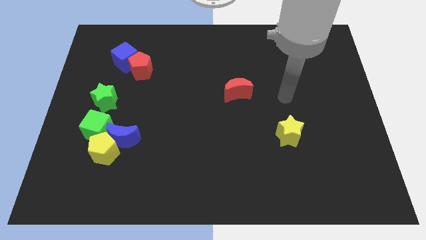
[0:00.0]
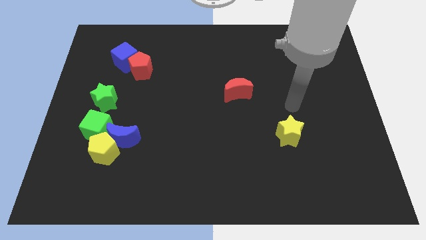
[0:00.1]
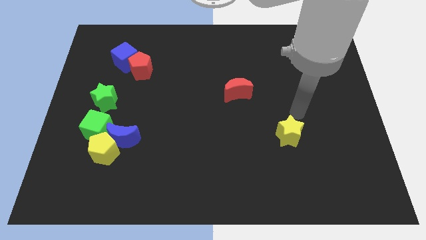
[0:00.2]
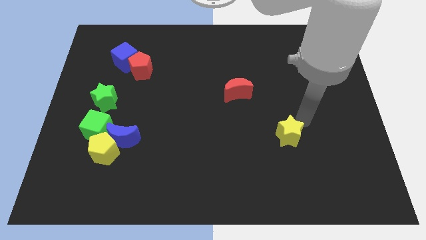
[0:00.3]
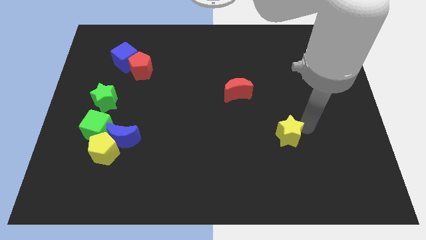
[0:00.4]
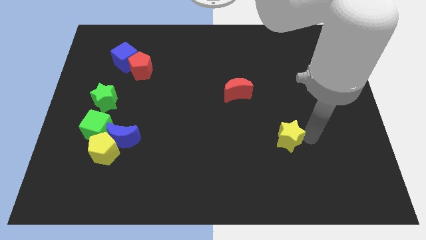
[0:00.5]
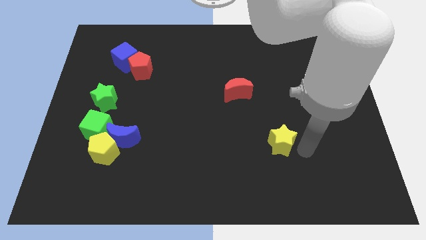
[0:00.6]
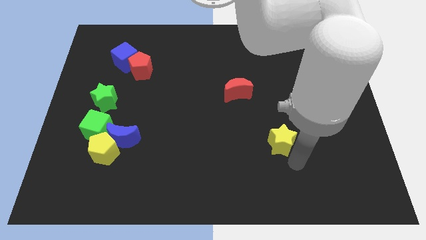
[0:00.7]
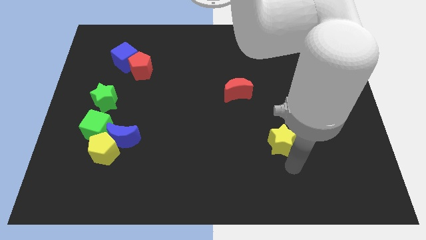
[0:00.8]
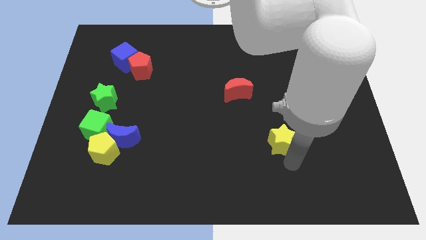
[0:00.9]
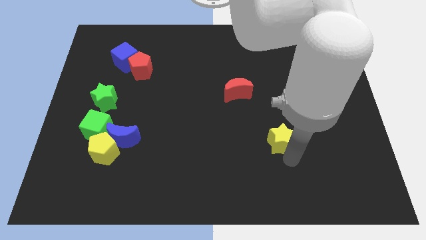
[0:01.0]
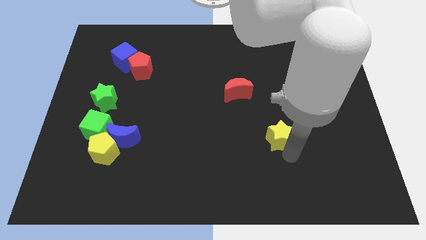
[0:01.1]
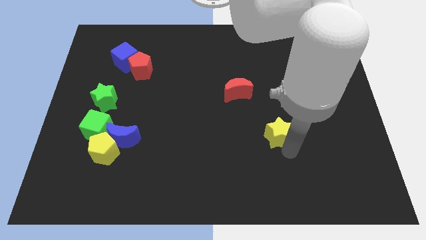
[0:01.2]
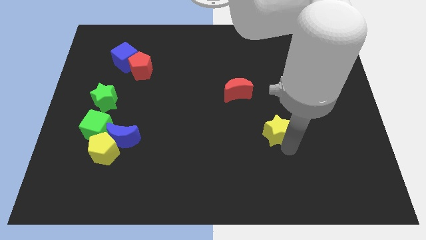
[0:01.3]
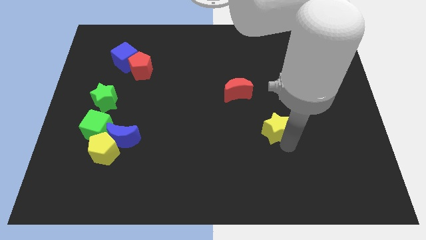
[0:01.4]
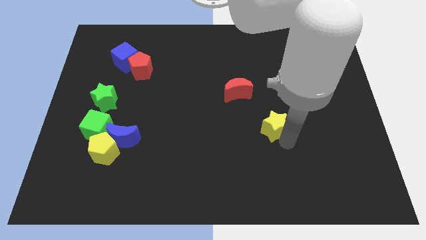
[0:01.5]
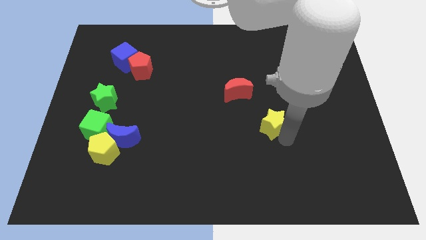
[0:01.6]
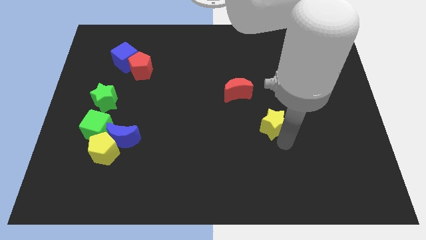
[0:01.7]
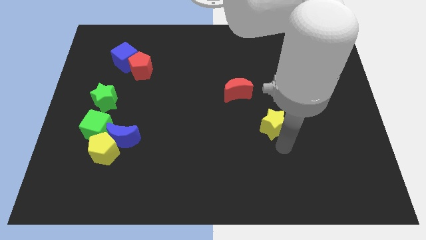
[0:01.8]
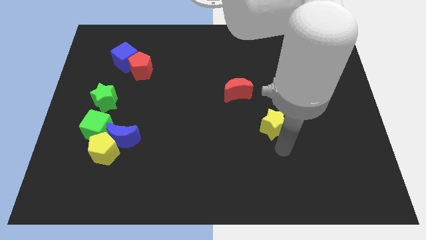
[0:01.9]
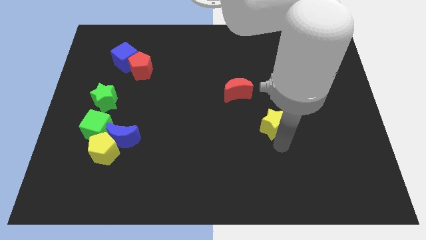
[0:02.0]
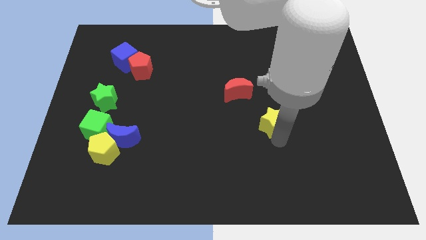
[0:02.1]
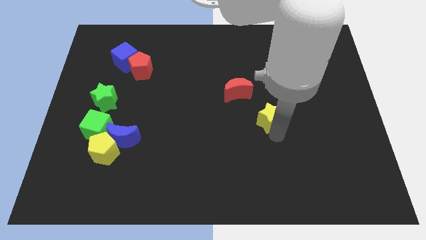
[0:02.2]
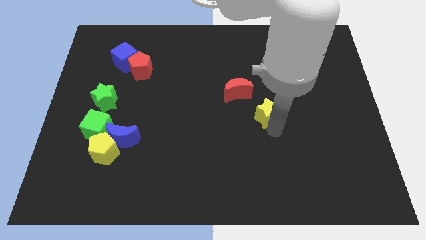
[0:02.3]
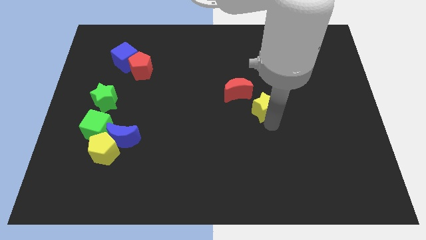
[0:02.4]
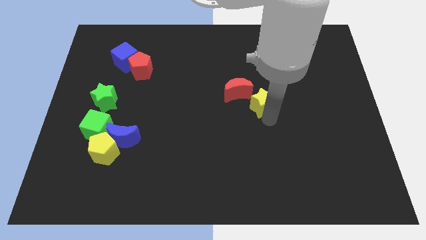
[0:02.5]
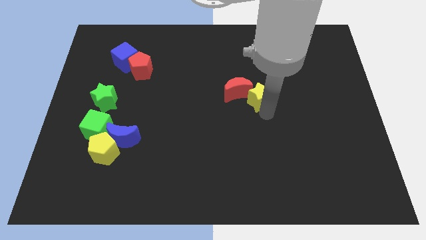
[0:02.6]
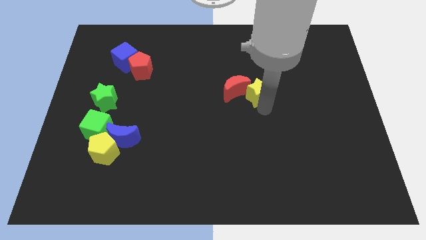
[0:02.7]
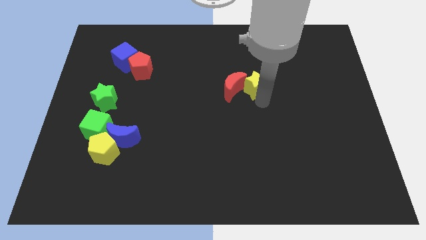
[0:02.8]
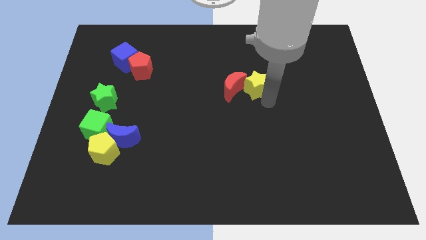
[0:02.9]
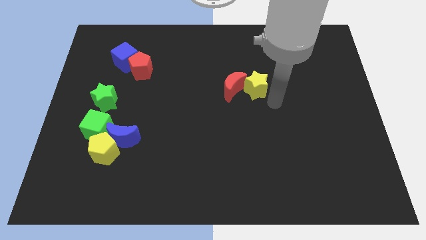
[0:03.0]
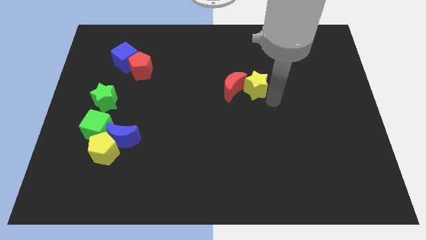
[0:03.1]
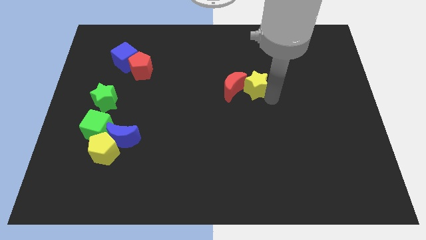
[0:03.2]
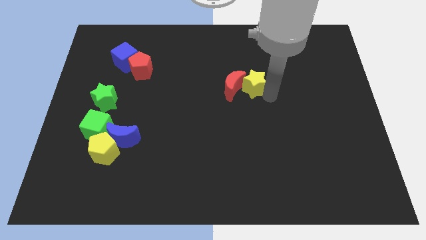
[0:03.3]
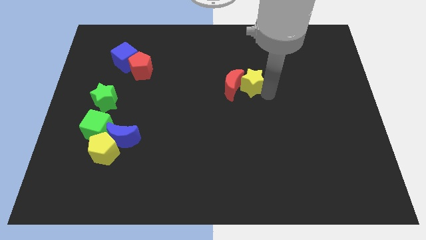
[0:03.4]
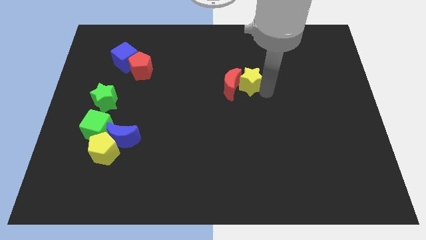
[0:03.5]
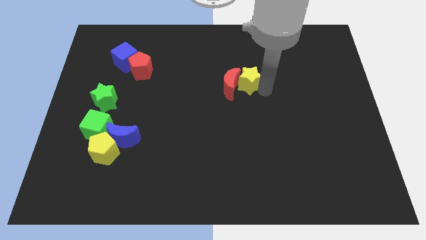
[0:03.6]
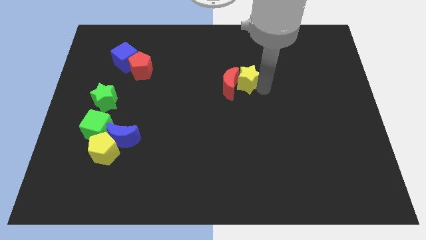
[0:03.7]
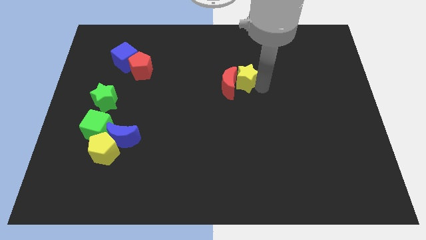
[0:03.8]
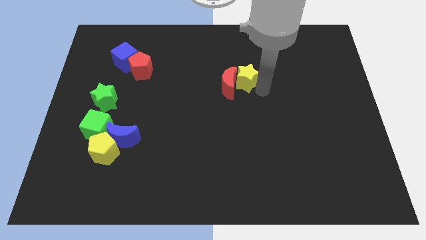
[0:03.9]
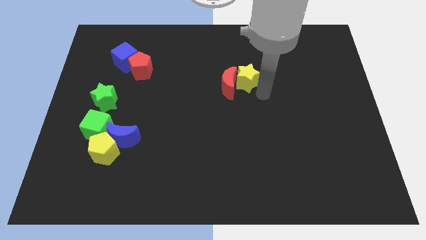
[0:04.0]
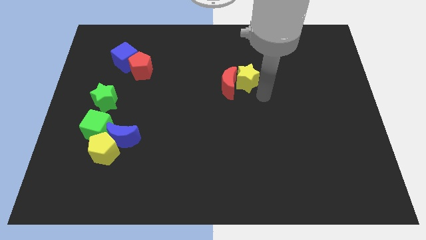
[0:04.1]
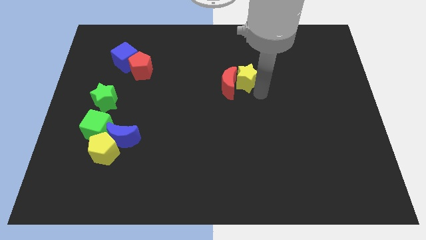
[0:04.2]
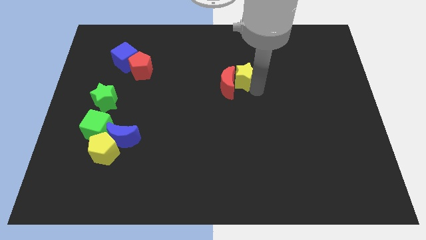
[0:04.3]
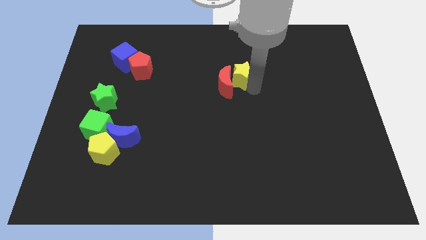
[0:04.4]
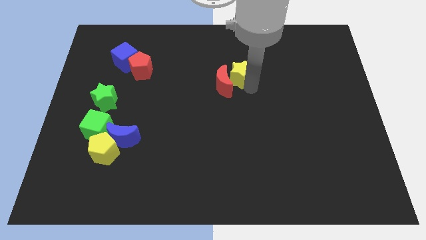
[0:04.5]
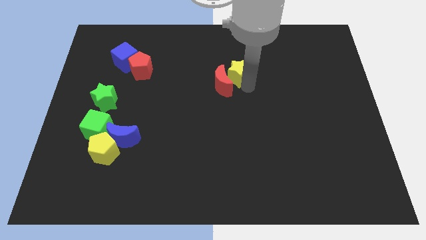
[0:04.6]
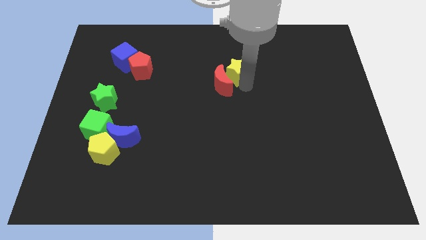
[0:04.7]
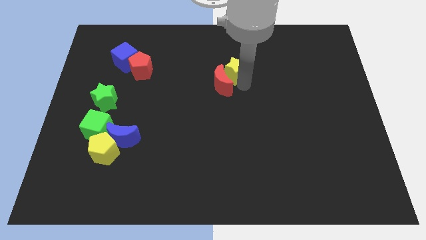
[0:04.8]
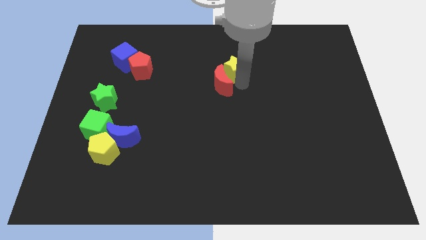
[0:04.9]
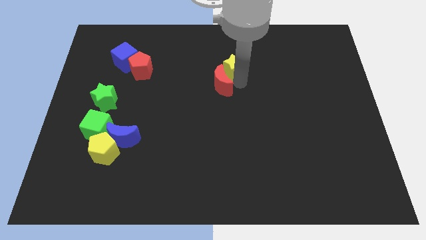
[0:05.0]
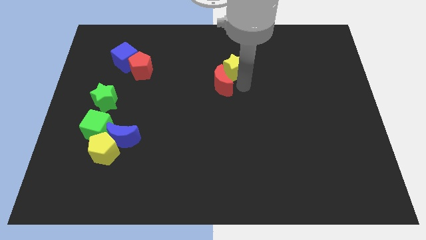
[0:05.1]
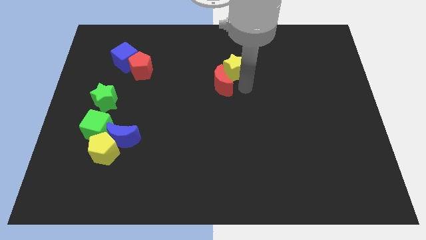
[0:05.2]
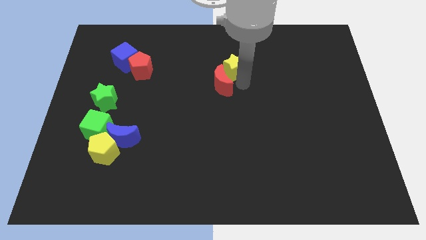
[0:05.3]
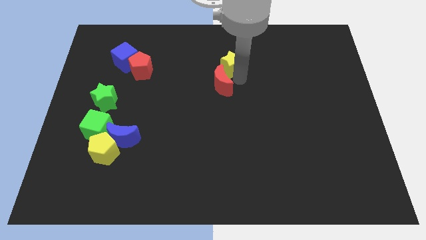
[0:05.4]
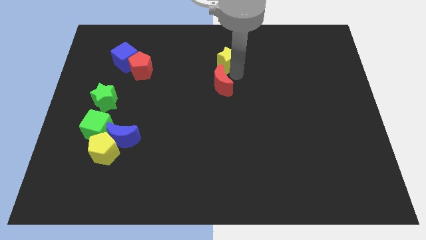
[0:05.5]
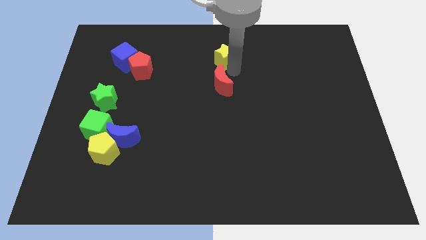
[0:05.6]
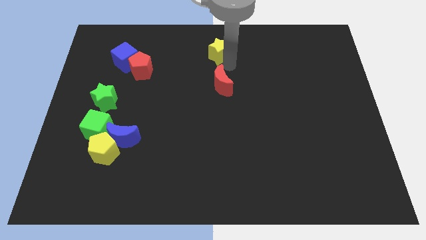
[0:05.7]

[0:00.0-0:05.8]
slide the yellow star to the top side

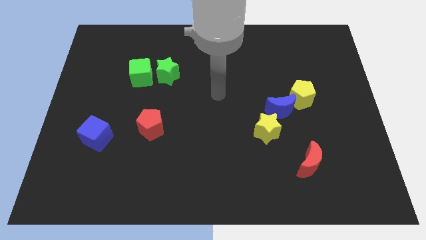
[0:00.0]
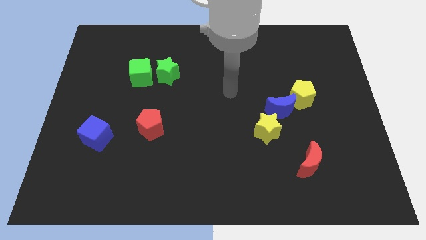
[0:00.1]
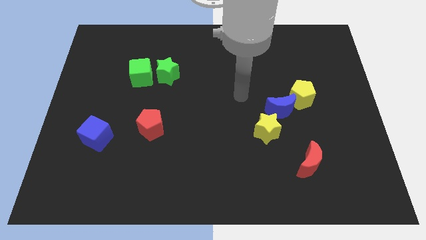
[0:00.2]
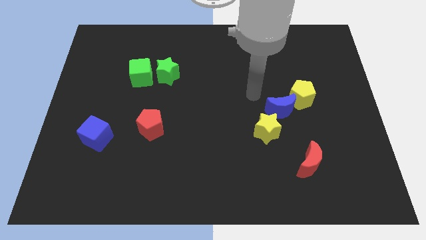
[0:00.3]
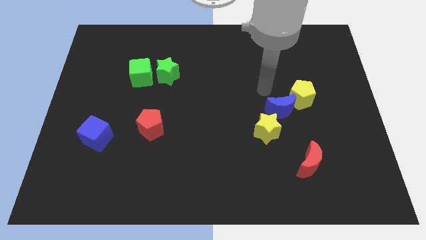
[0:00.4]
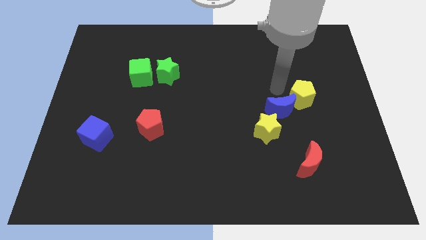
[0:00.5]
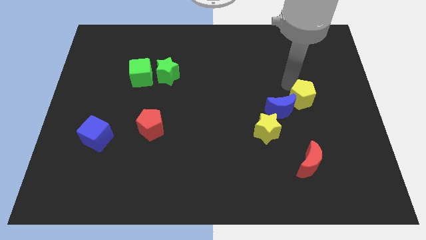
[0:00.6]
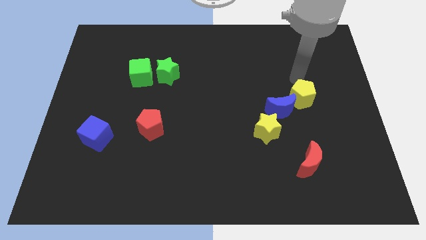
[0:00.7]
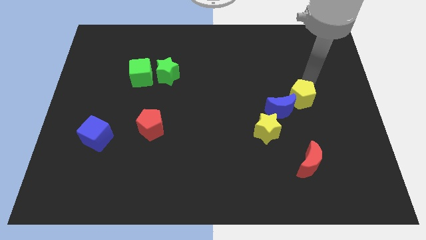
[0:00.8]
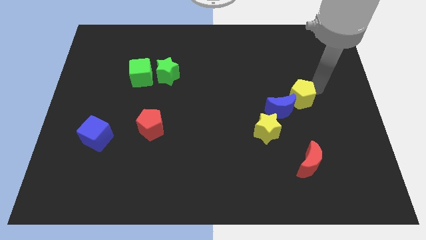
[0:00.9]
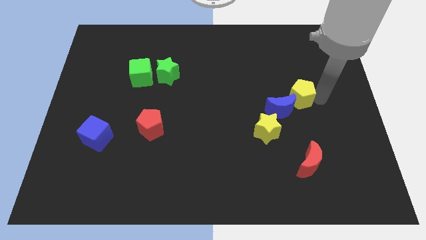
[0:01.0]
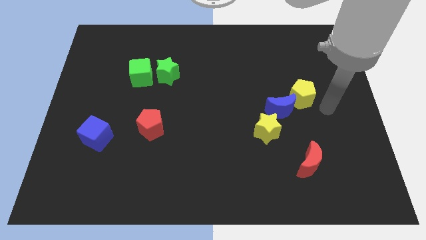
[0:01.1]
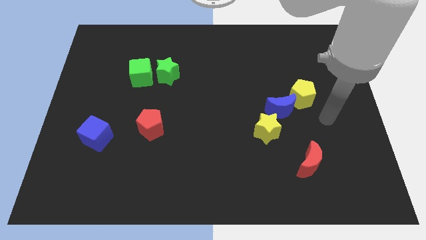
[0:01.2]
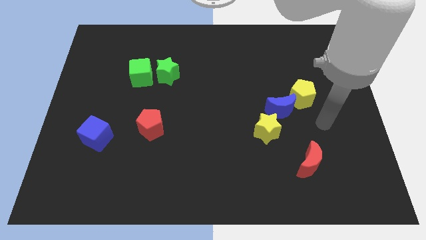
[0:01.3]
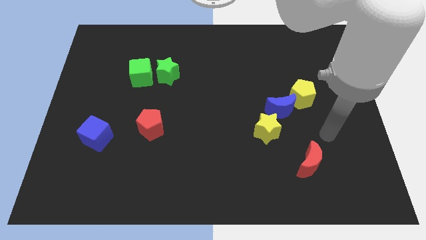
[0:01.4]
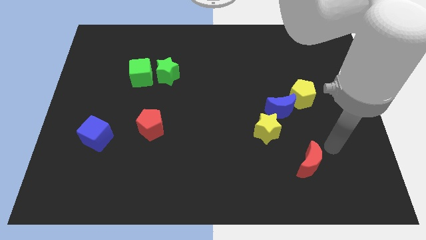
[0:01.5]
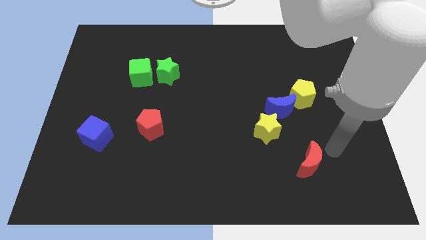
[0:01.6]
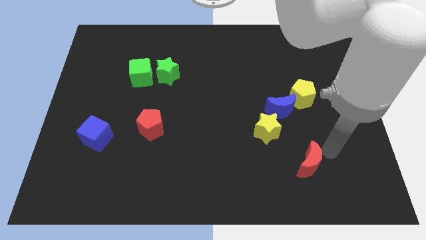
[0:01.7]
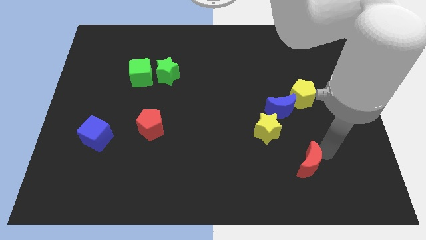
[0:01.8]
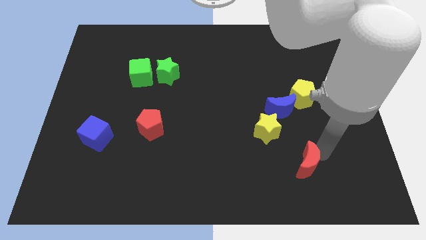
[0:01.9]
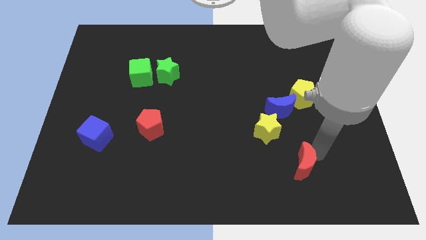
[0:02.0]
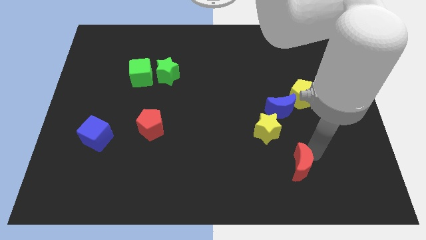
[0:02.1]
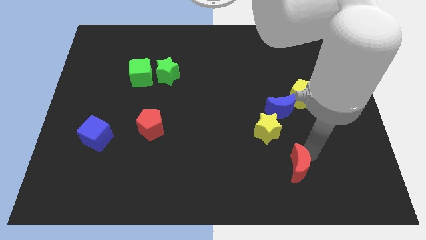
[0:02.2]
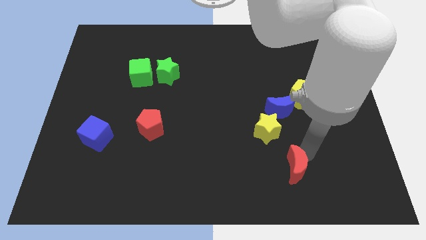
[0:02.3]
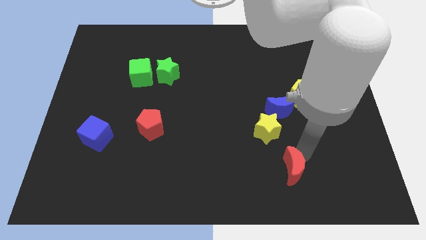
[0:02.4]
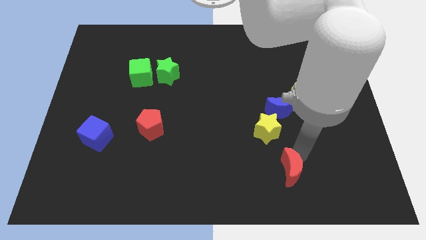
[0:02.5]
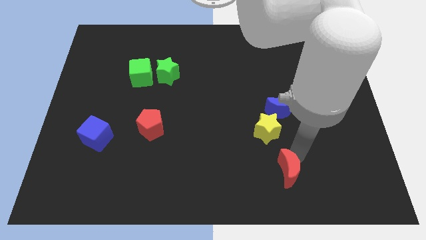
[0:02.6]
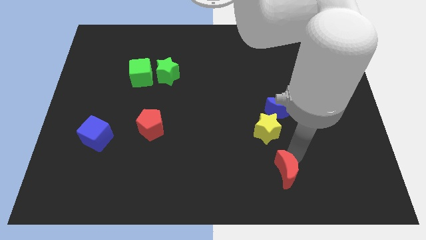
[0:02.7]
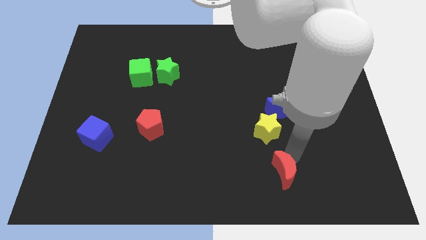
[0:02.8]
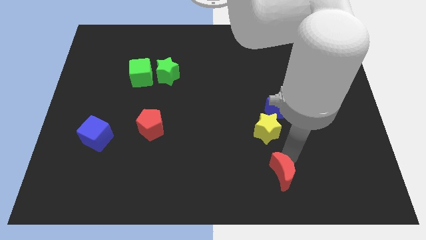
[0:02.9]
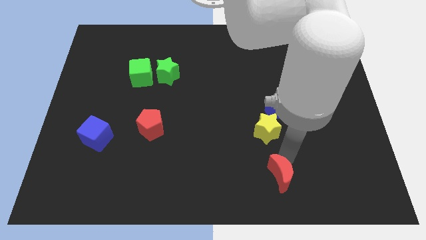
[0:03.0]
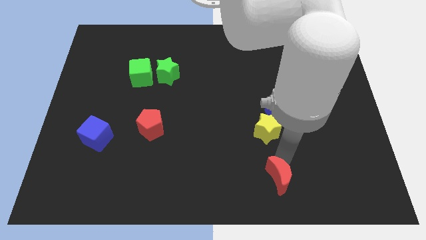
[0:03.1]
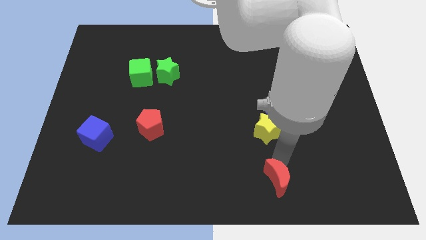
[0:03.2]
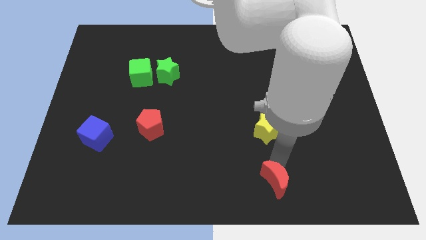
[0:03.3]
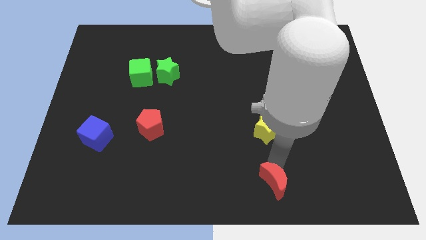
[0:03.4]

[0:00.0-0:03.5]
slide the red moon to the bottom
